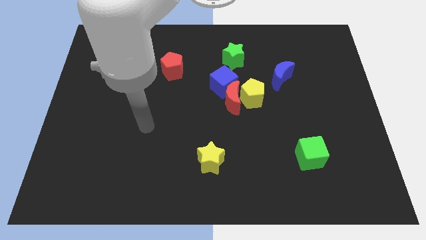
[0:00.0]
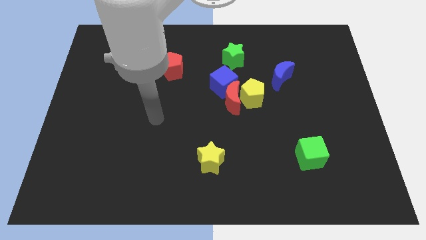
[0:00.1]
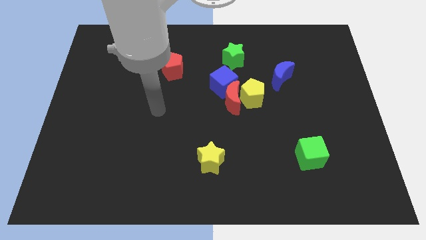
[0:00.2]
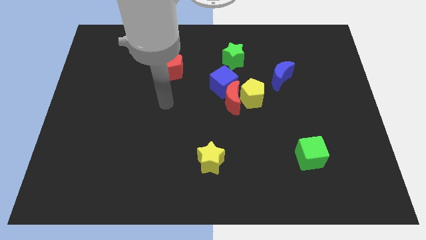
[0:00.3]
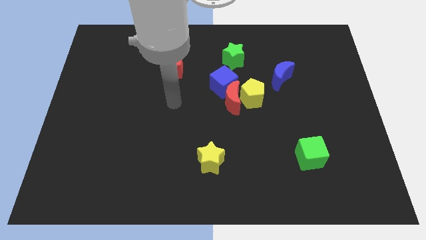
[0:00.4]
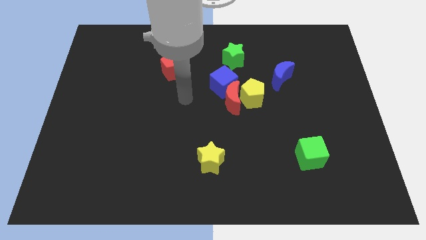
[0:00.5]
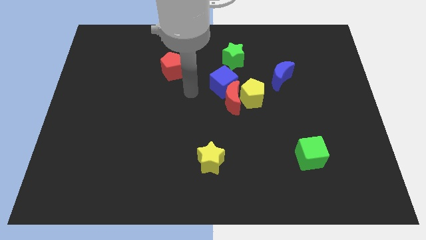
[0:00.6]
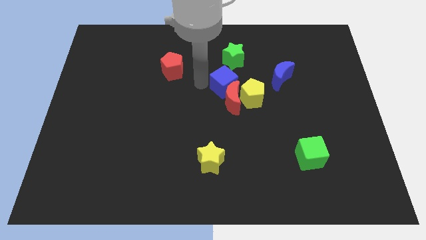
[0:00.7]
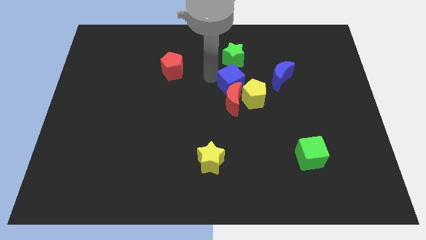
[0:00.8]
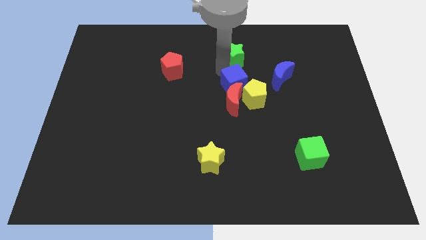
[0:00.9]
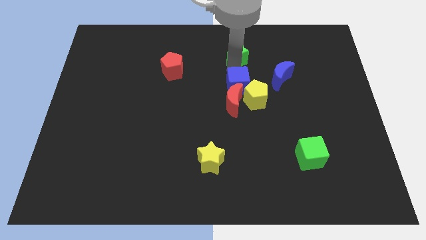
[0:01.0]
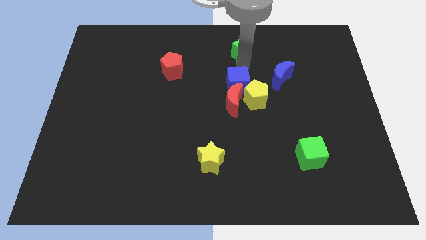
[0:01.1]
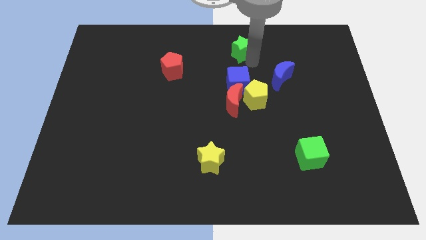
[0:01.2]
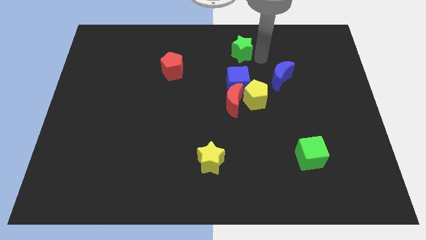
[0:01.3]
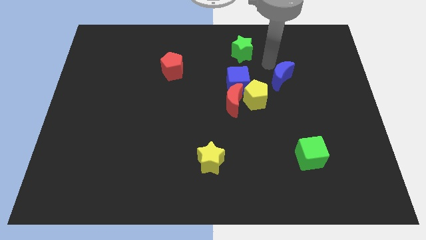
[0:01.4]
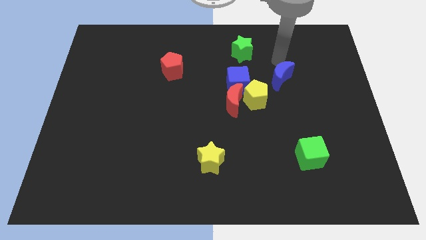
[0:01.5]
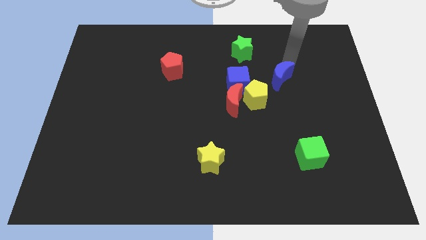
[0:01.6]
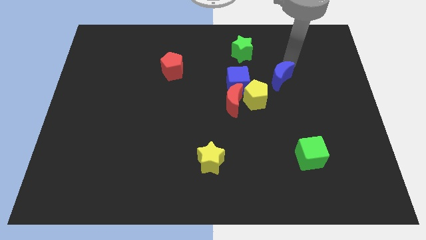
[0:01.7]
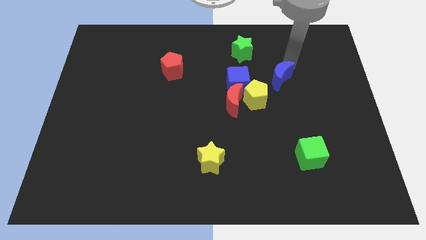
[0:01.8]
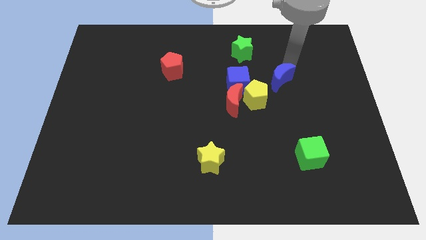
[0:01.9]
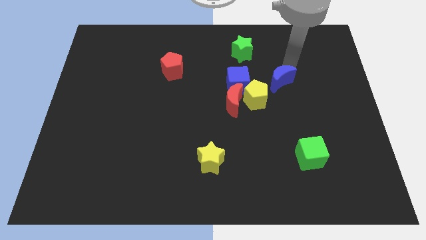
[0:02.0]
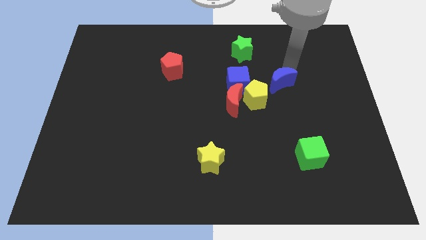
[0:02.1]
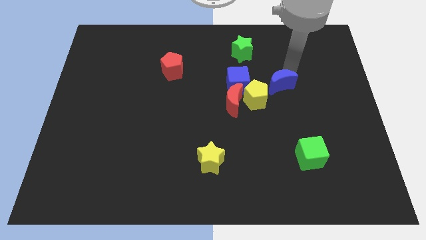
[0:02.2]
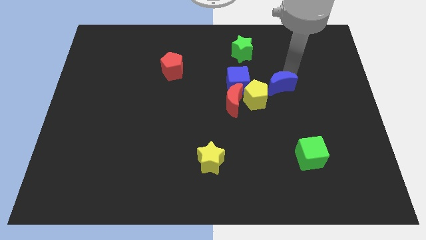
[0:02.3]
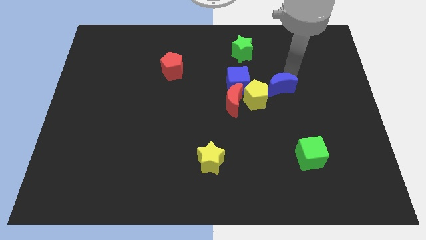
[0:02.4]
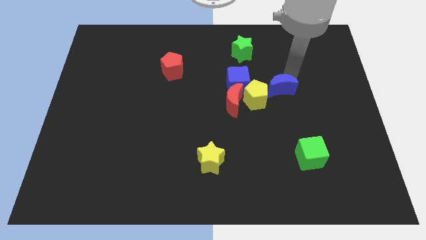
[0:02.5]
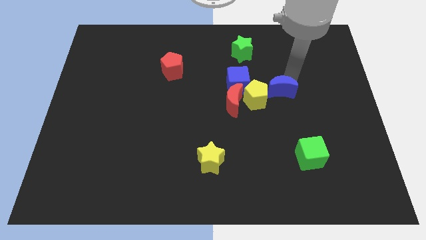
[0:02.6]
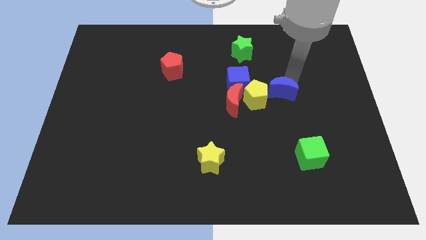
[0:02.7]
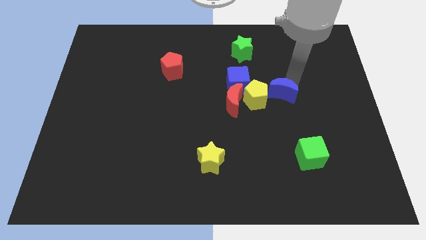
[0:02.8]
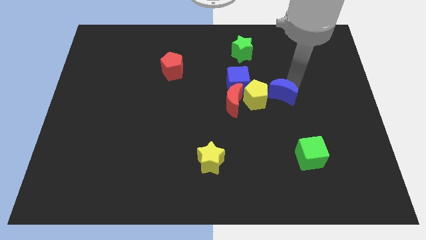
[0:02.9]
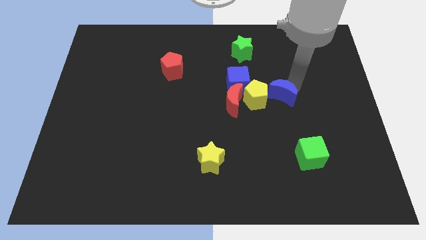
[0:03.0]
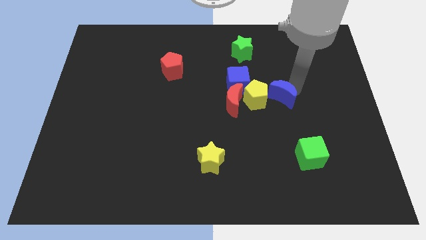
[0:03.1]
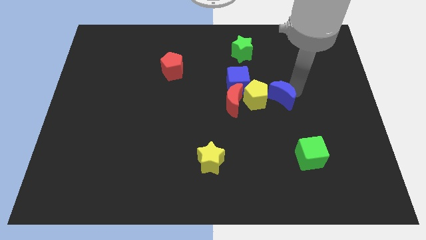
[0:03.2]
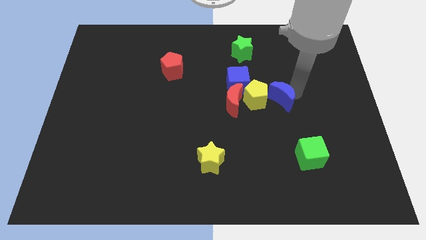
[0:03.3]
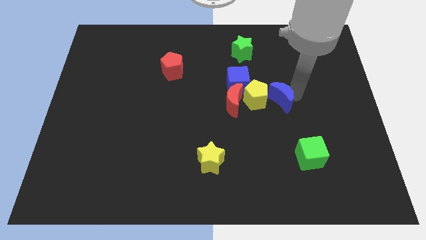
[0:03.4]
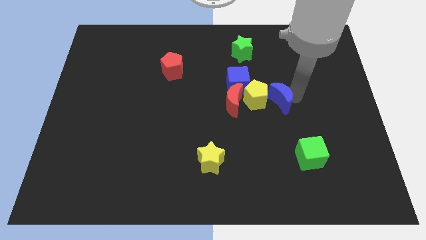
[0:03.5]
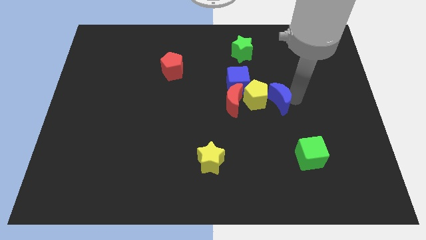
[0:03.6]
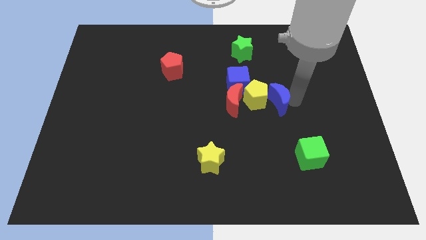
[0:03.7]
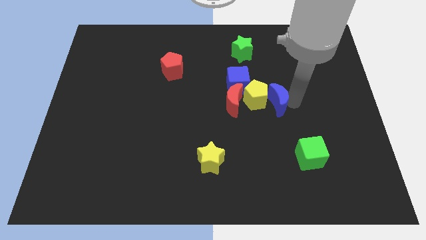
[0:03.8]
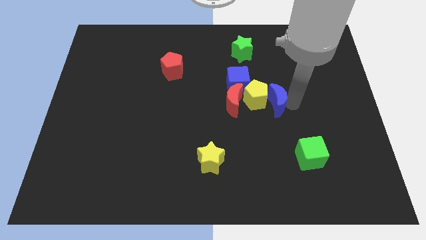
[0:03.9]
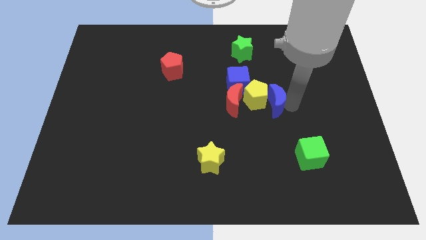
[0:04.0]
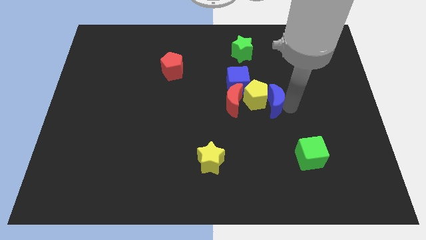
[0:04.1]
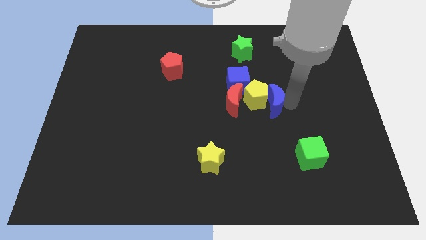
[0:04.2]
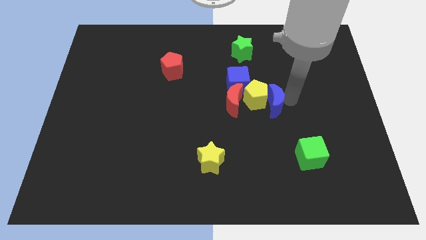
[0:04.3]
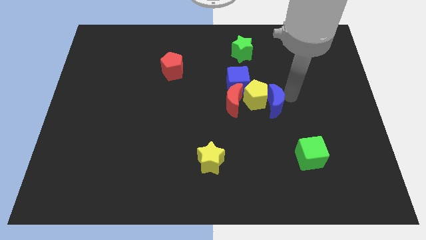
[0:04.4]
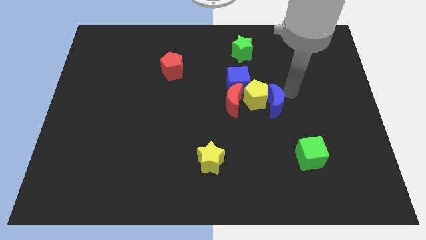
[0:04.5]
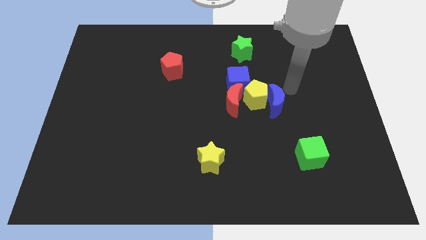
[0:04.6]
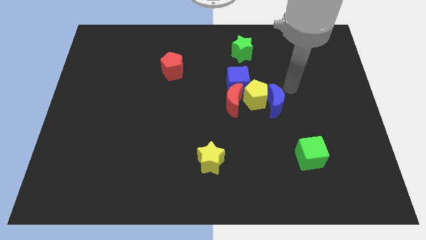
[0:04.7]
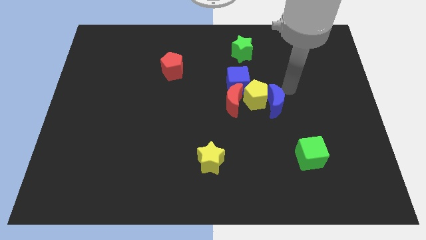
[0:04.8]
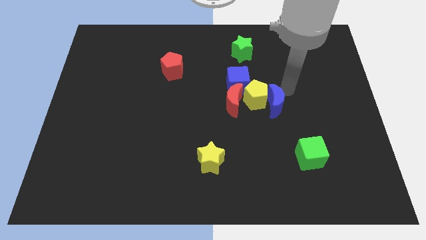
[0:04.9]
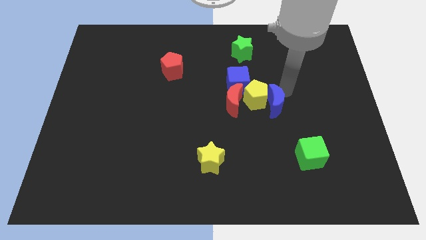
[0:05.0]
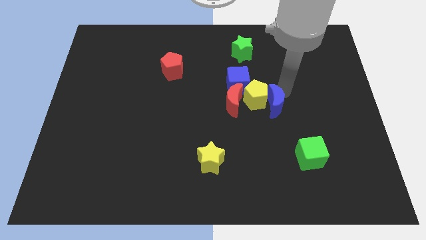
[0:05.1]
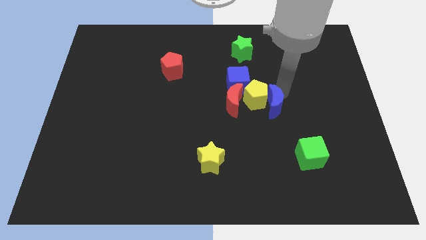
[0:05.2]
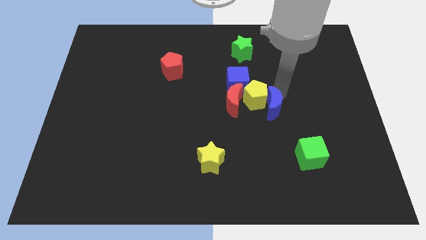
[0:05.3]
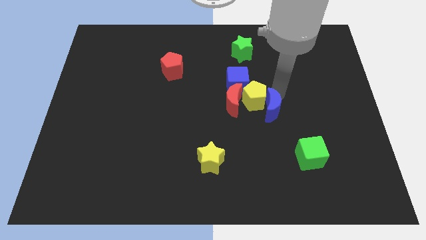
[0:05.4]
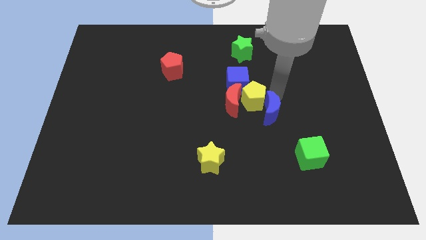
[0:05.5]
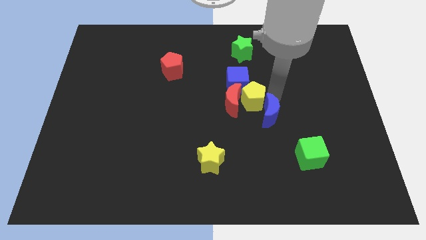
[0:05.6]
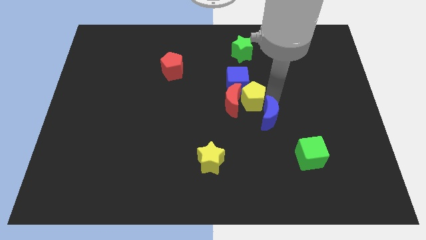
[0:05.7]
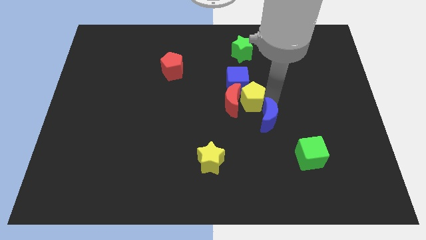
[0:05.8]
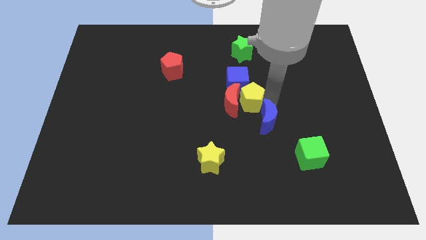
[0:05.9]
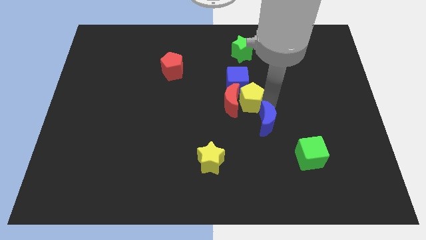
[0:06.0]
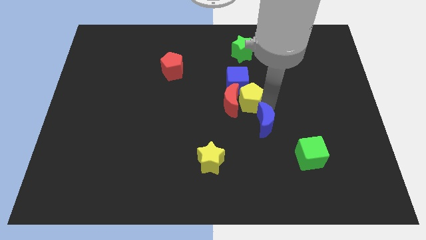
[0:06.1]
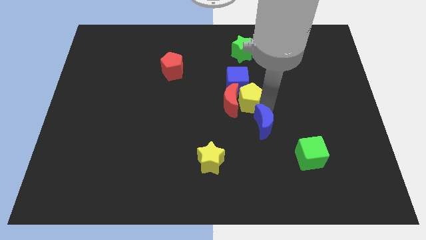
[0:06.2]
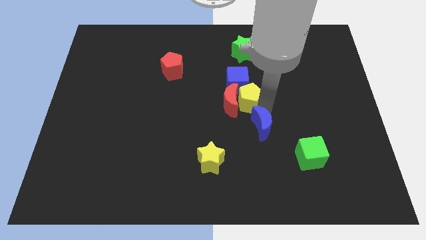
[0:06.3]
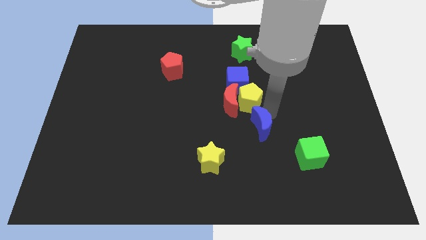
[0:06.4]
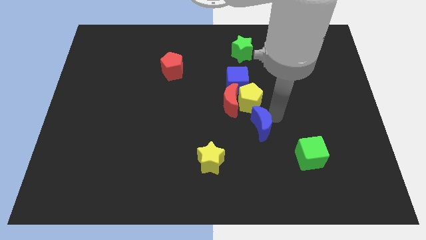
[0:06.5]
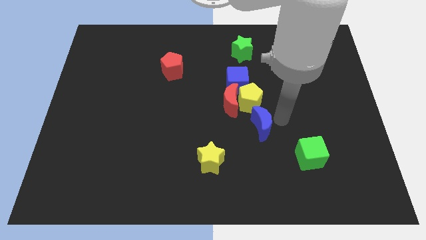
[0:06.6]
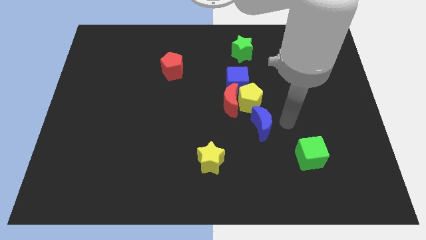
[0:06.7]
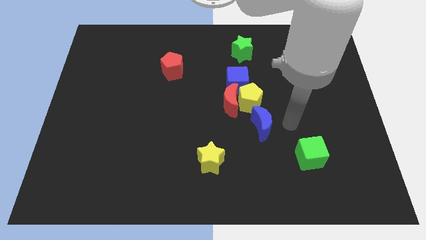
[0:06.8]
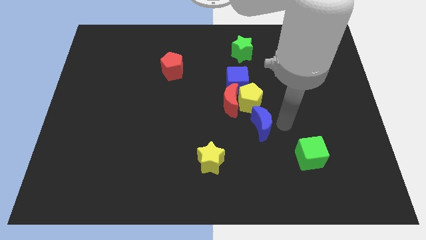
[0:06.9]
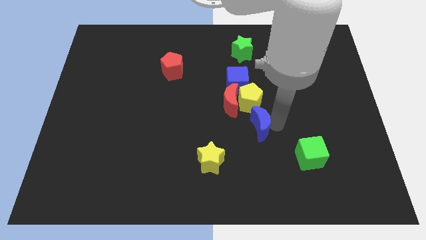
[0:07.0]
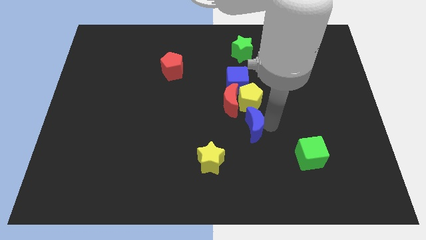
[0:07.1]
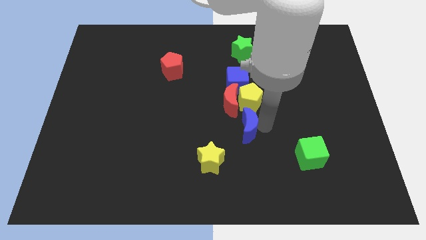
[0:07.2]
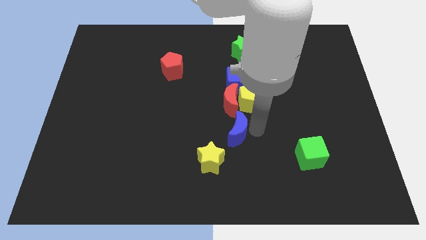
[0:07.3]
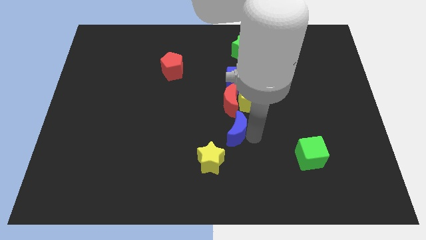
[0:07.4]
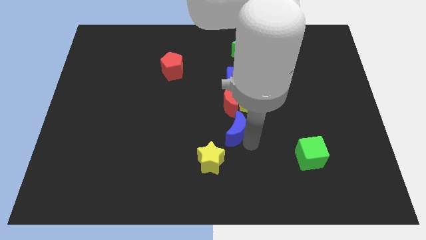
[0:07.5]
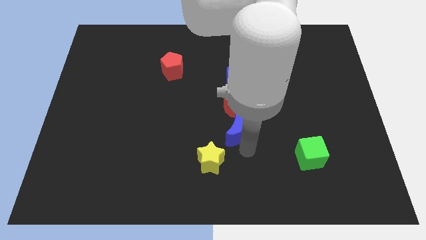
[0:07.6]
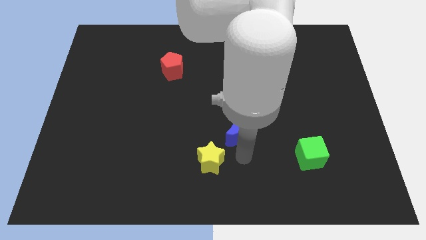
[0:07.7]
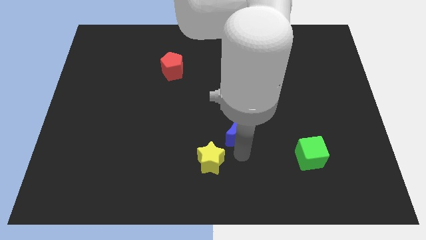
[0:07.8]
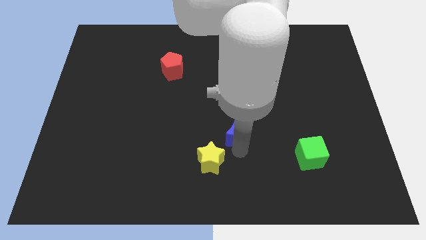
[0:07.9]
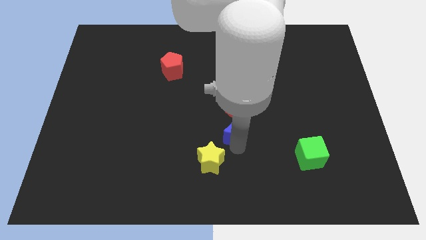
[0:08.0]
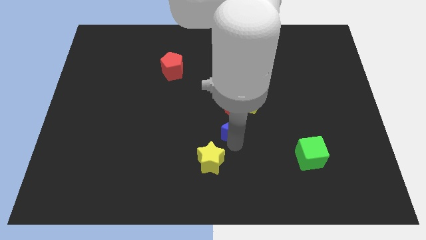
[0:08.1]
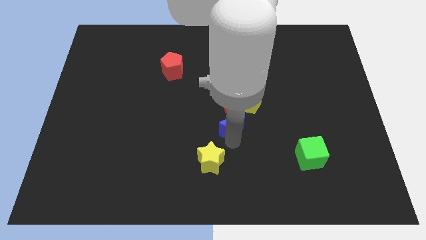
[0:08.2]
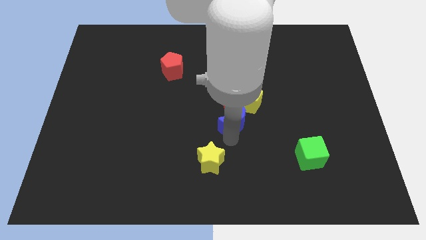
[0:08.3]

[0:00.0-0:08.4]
slide the blue moon towards the red moon
